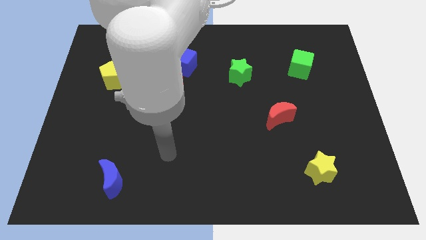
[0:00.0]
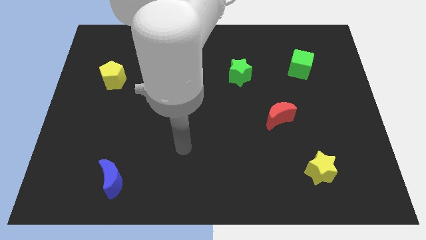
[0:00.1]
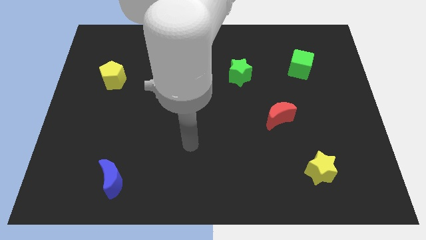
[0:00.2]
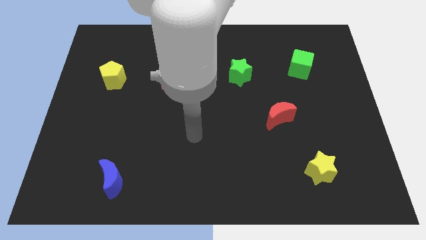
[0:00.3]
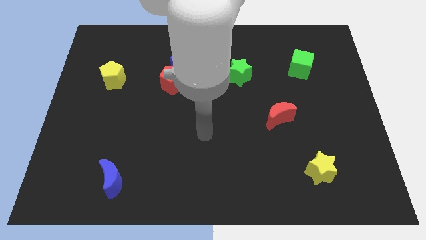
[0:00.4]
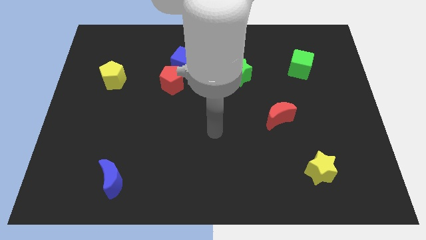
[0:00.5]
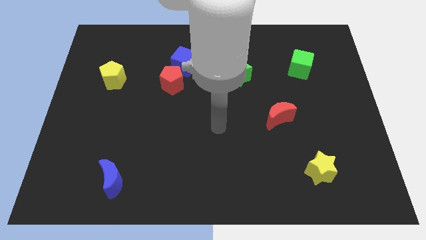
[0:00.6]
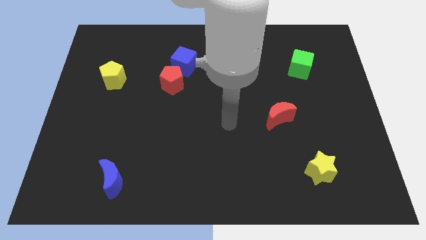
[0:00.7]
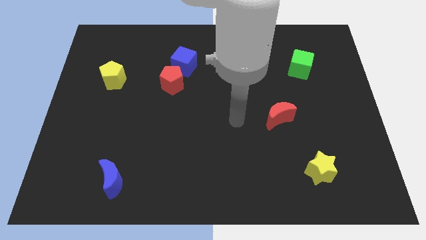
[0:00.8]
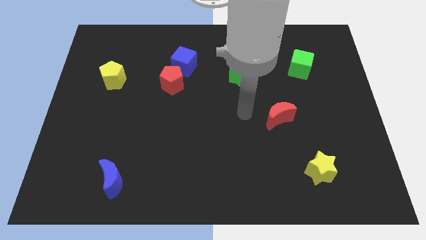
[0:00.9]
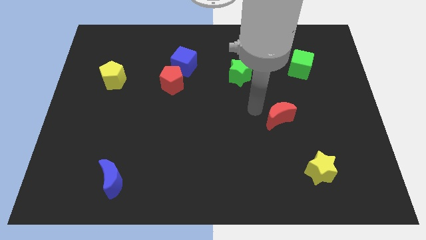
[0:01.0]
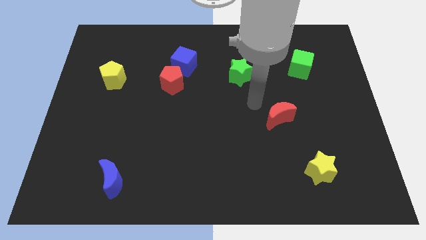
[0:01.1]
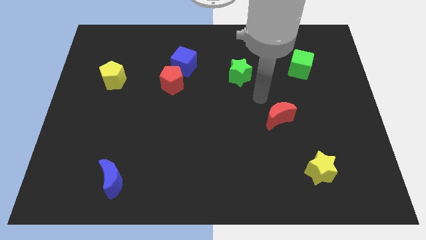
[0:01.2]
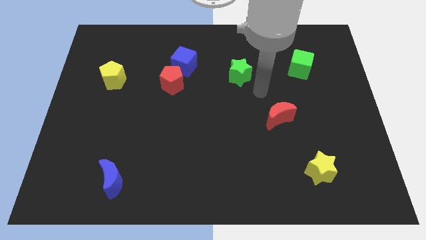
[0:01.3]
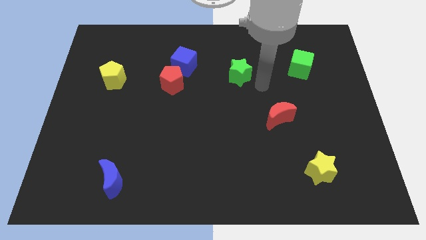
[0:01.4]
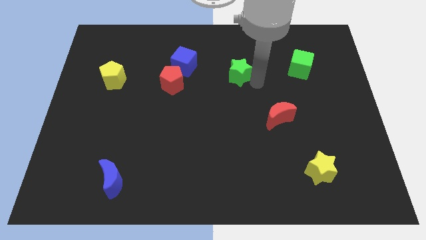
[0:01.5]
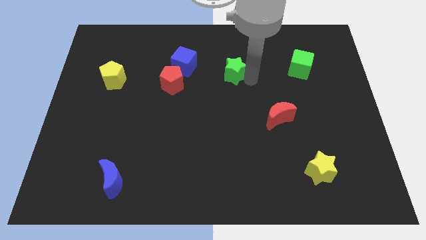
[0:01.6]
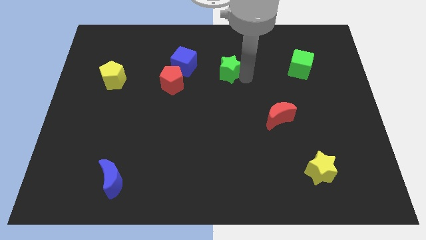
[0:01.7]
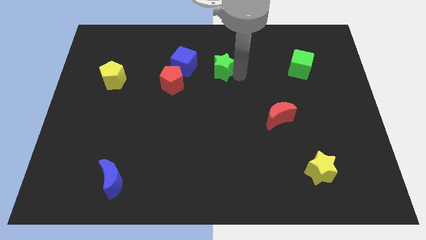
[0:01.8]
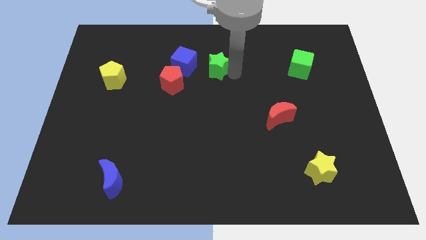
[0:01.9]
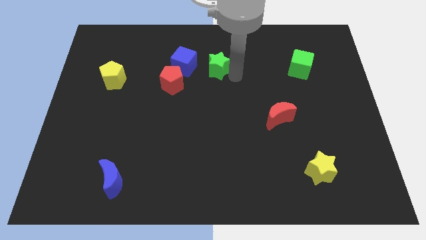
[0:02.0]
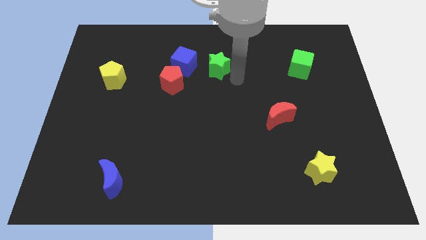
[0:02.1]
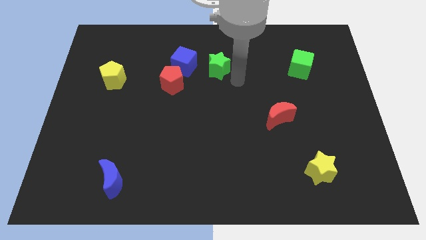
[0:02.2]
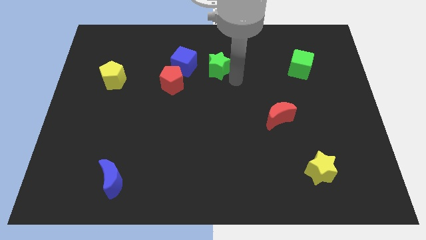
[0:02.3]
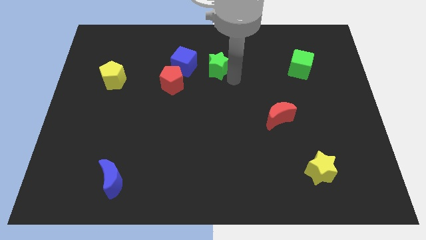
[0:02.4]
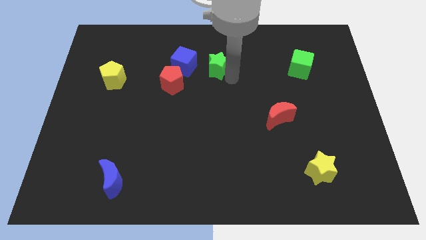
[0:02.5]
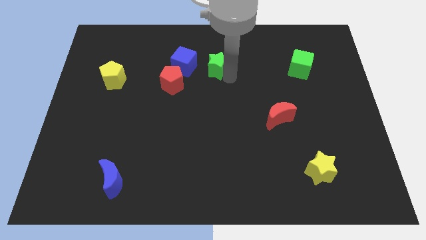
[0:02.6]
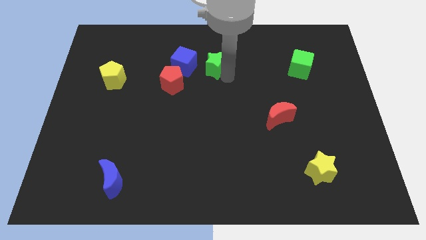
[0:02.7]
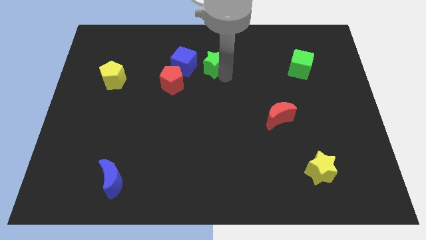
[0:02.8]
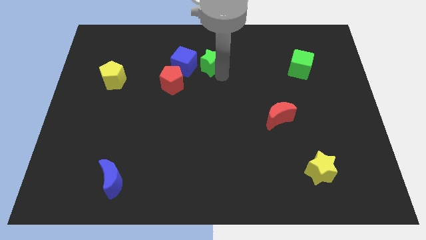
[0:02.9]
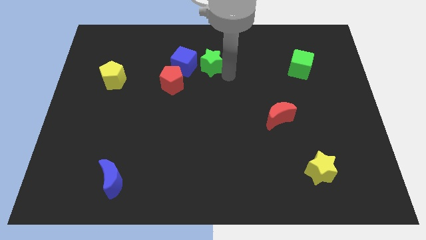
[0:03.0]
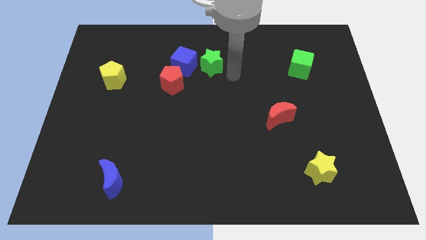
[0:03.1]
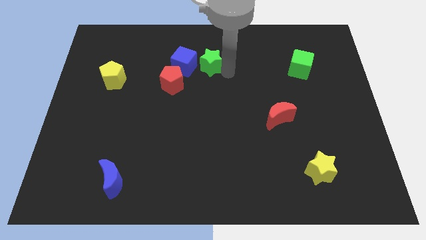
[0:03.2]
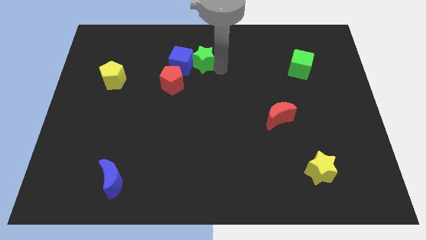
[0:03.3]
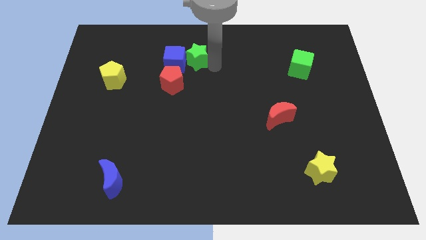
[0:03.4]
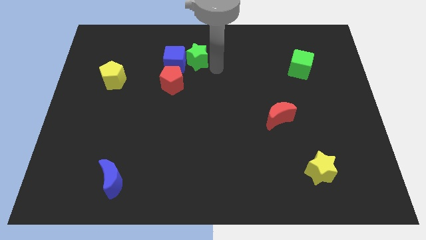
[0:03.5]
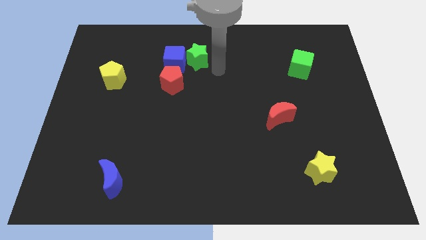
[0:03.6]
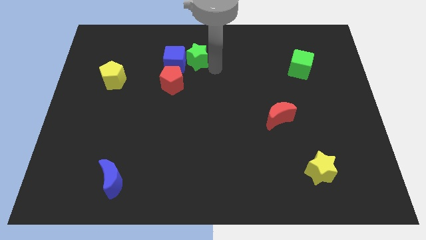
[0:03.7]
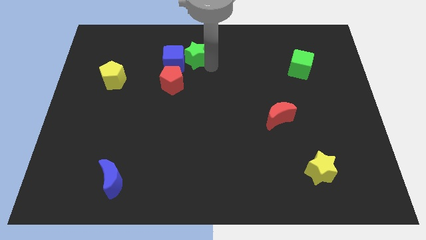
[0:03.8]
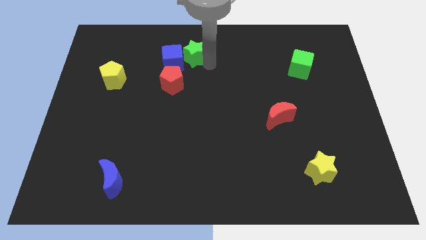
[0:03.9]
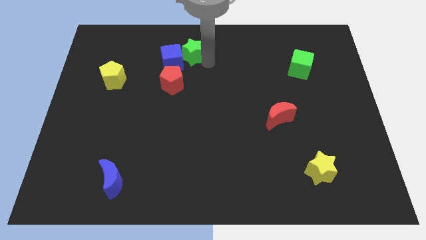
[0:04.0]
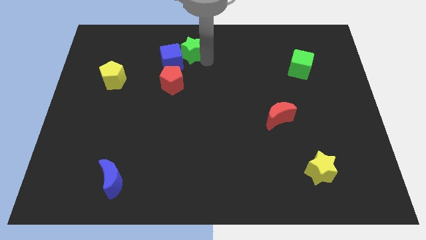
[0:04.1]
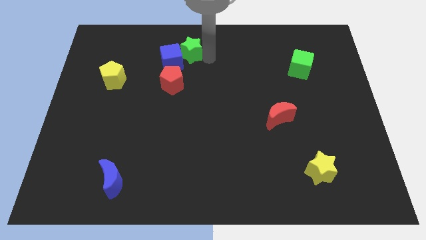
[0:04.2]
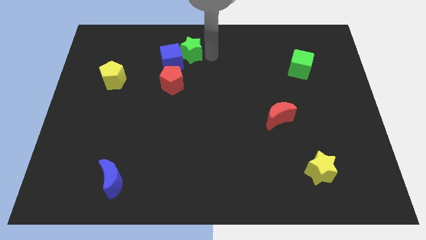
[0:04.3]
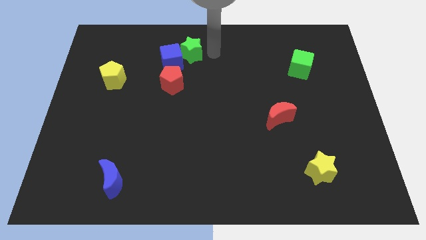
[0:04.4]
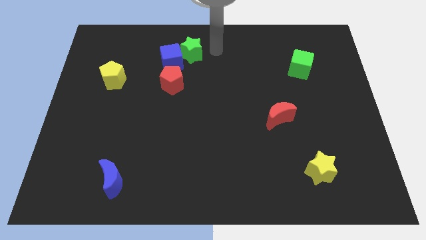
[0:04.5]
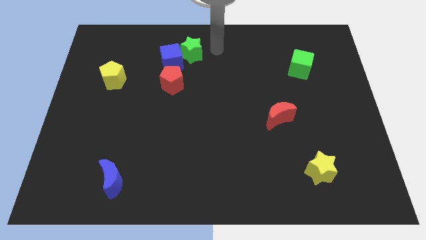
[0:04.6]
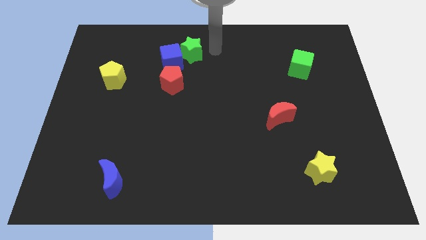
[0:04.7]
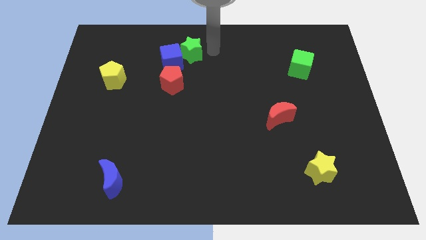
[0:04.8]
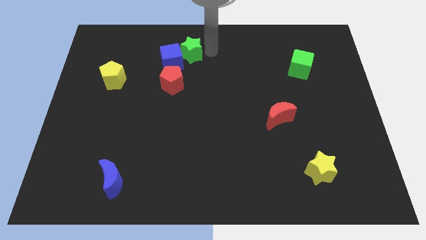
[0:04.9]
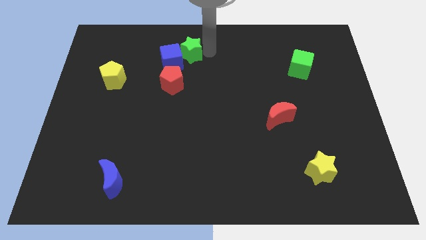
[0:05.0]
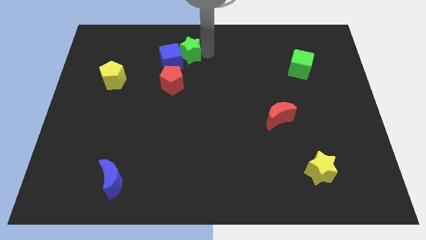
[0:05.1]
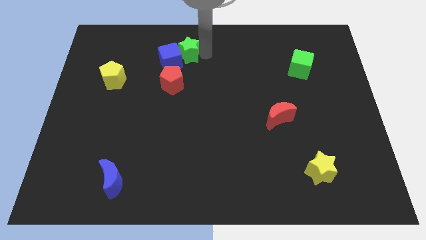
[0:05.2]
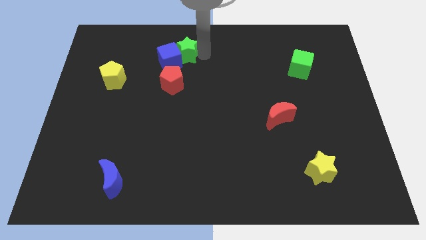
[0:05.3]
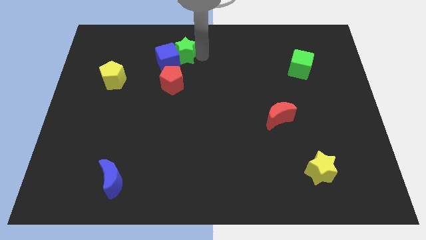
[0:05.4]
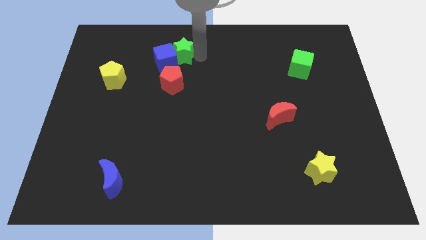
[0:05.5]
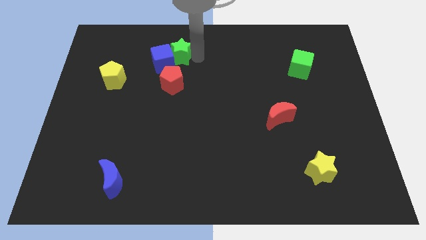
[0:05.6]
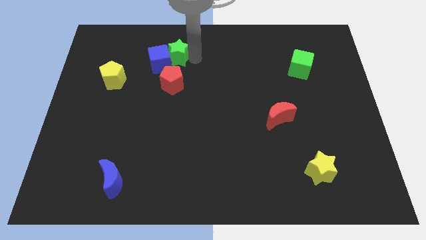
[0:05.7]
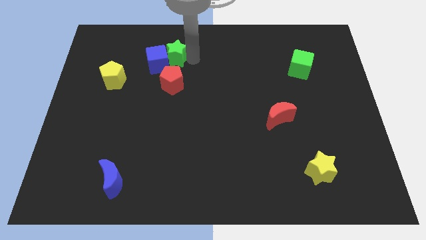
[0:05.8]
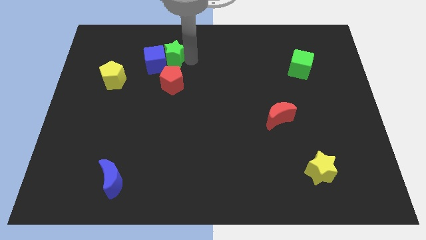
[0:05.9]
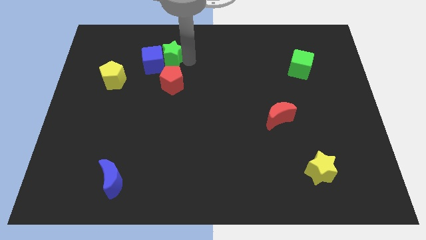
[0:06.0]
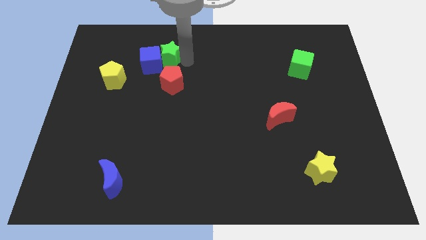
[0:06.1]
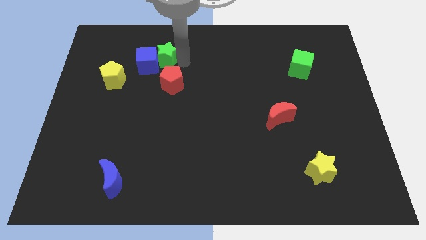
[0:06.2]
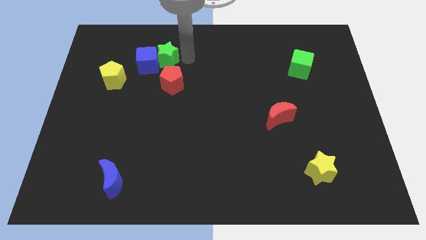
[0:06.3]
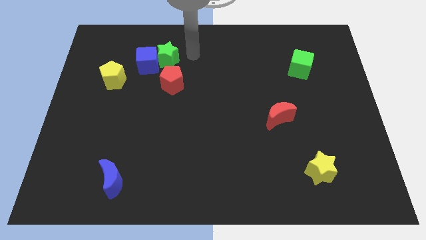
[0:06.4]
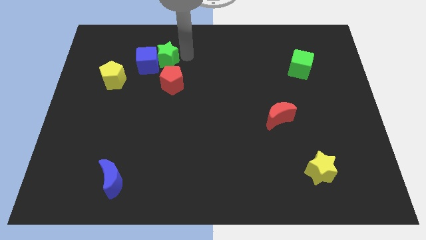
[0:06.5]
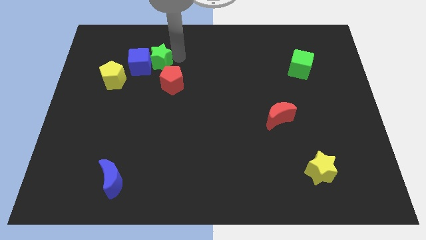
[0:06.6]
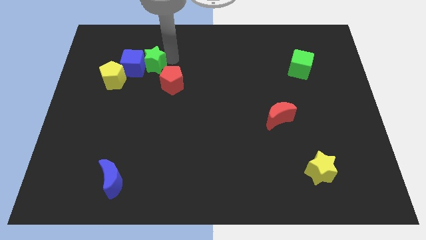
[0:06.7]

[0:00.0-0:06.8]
slide the green star diagonally up and to the right of the yellow pentagon

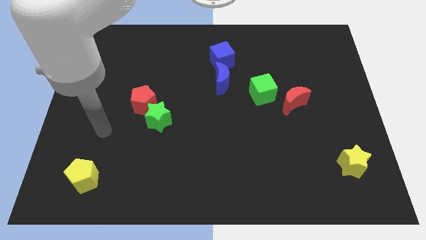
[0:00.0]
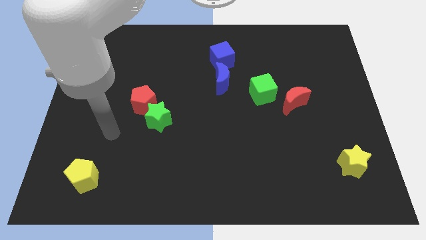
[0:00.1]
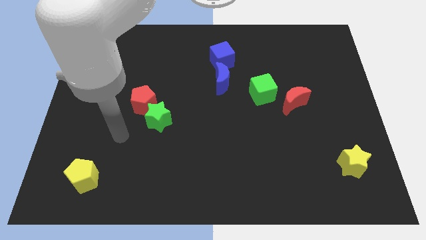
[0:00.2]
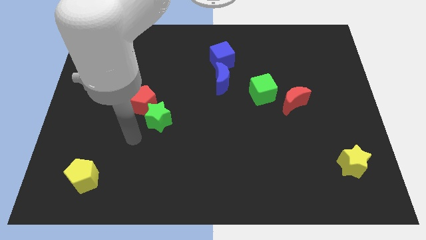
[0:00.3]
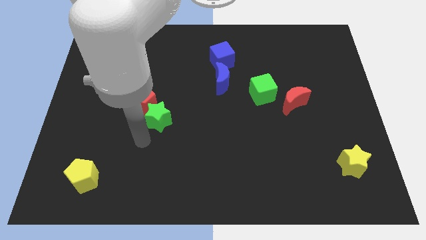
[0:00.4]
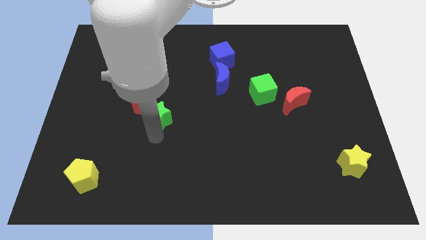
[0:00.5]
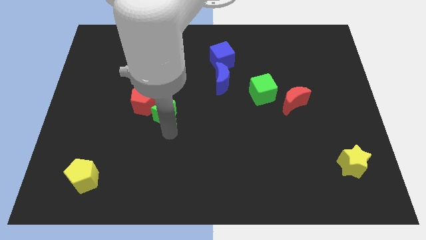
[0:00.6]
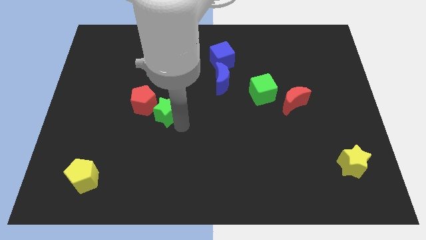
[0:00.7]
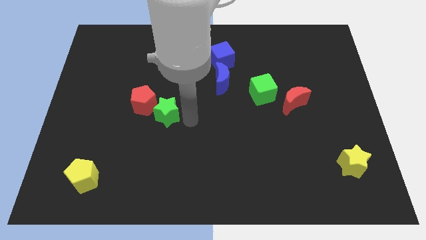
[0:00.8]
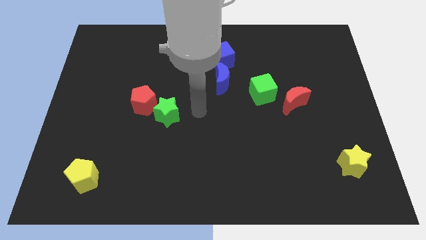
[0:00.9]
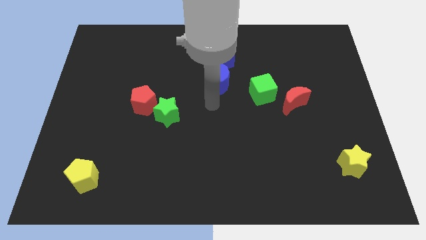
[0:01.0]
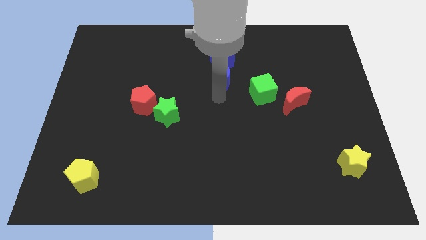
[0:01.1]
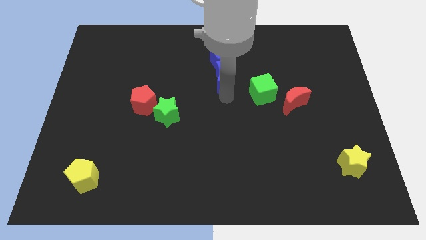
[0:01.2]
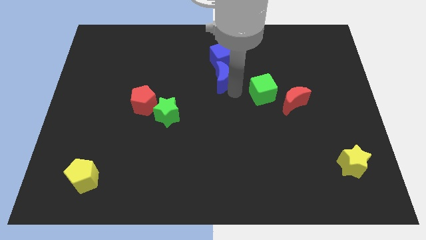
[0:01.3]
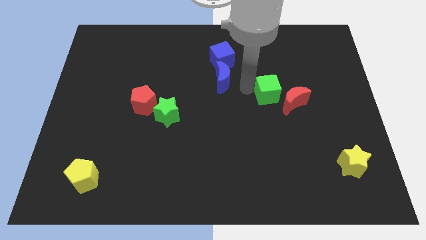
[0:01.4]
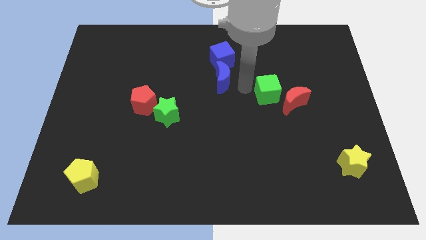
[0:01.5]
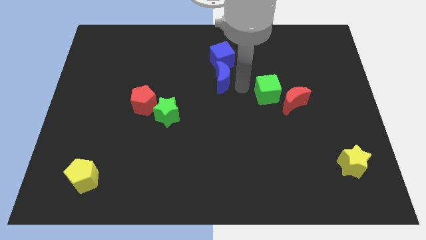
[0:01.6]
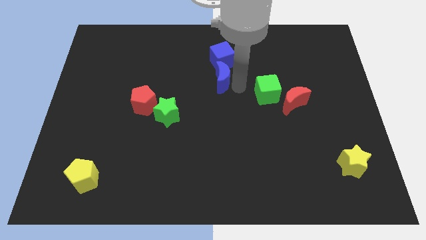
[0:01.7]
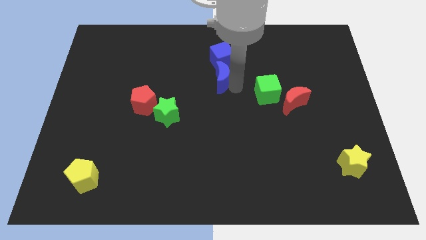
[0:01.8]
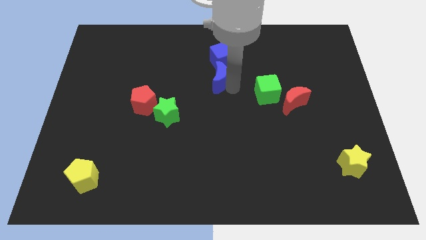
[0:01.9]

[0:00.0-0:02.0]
push the blue moon to the bottom left of the blue cube
